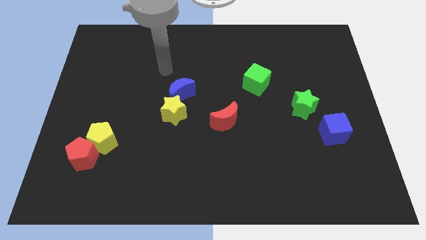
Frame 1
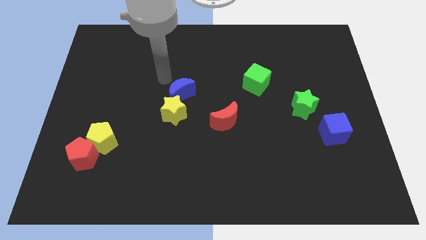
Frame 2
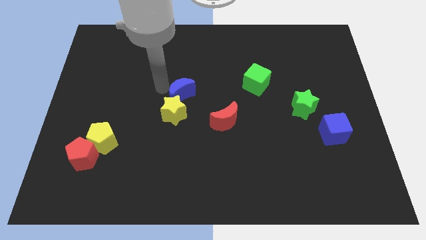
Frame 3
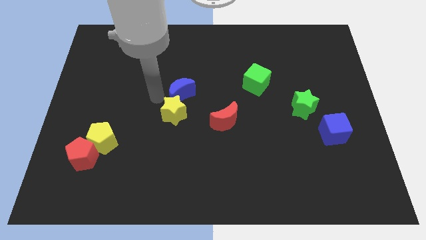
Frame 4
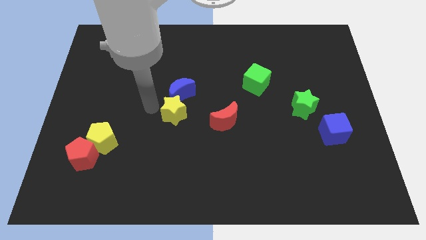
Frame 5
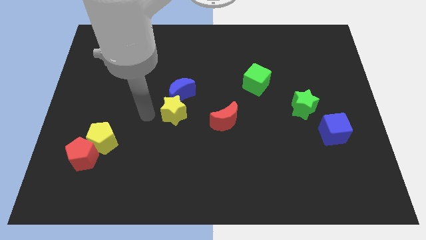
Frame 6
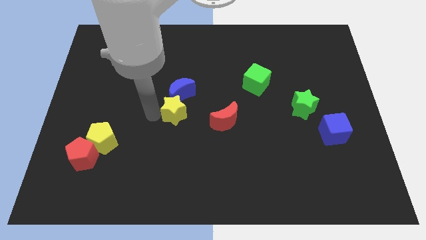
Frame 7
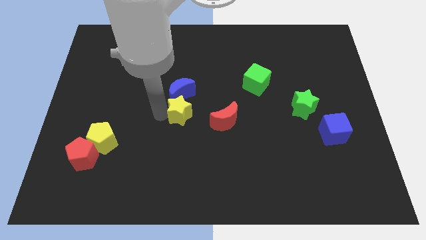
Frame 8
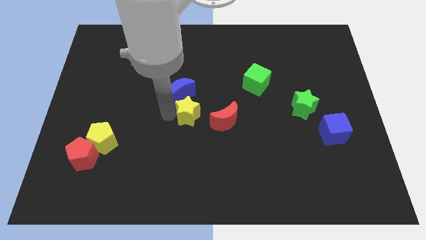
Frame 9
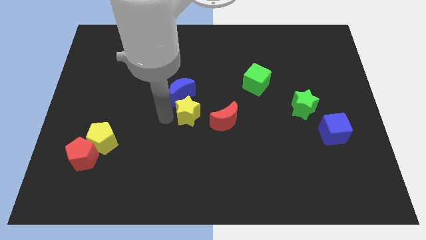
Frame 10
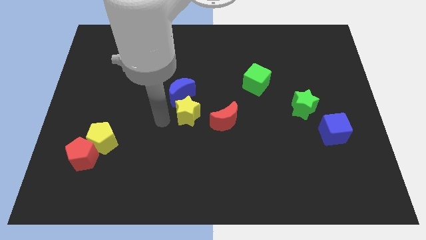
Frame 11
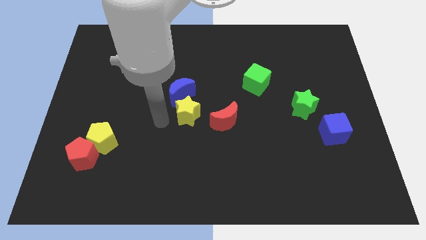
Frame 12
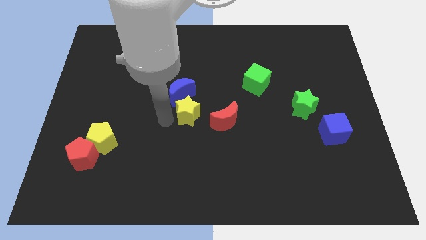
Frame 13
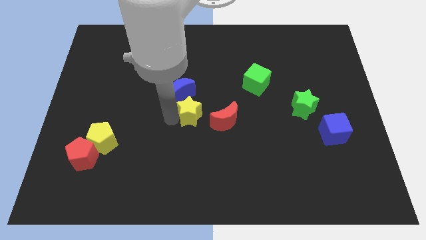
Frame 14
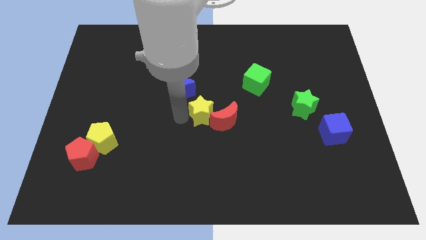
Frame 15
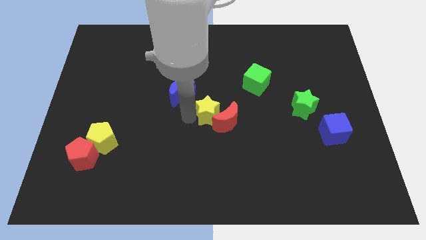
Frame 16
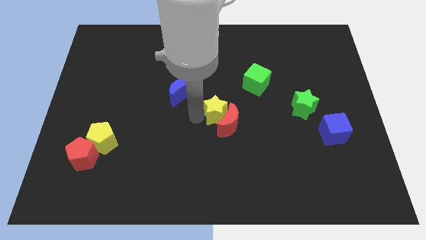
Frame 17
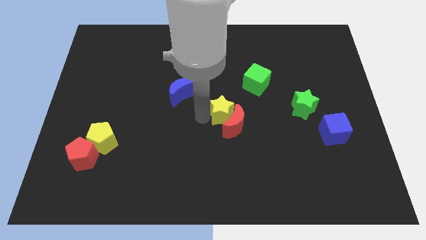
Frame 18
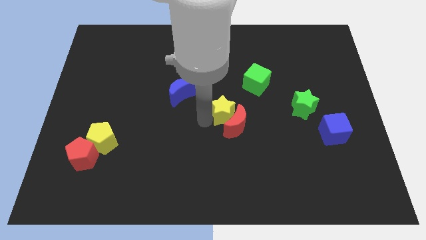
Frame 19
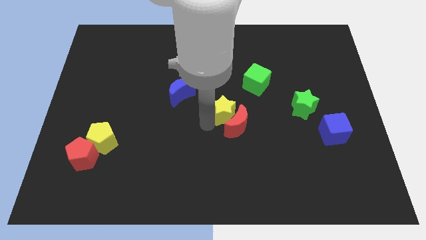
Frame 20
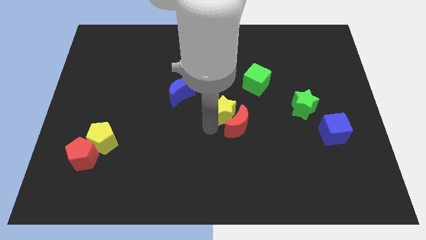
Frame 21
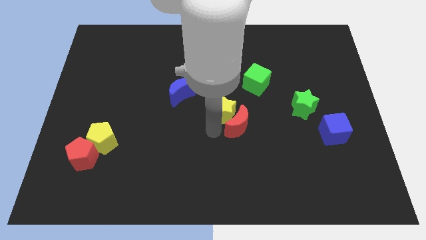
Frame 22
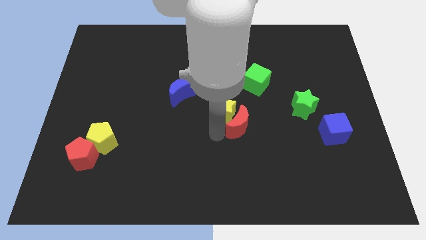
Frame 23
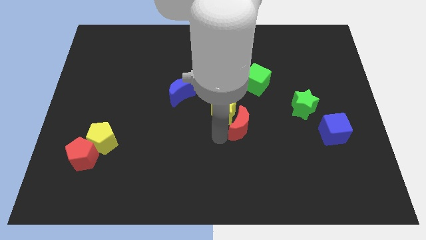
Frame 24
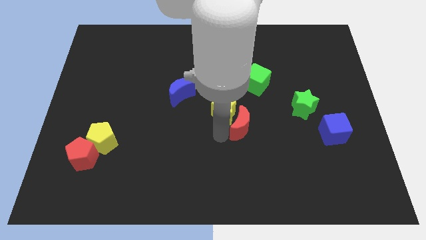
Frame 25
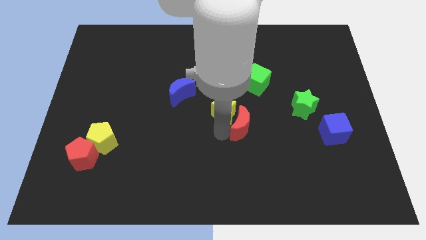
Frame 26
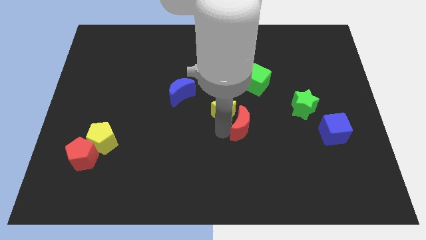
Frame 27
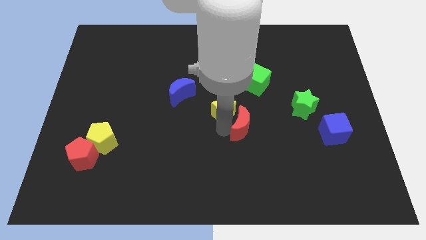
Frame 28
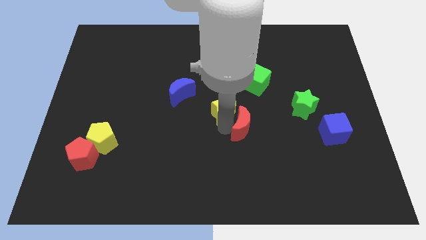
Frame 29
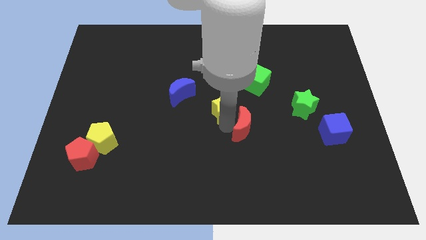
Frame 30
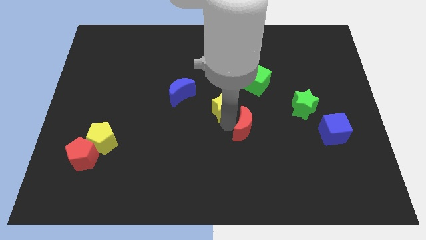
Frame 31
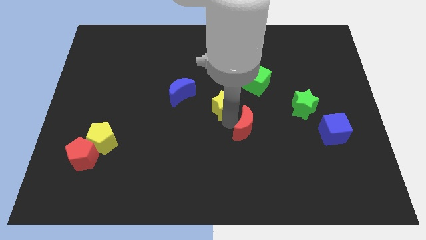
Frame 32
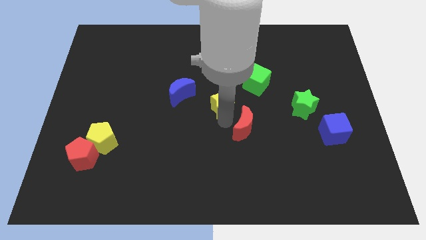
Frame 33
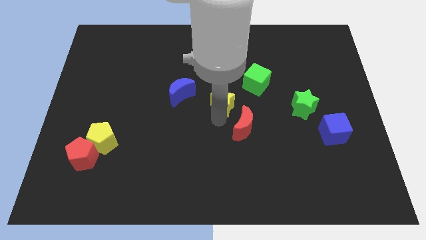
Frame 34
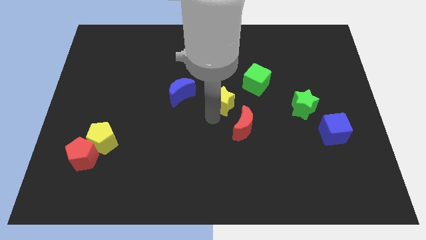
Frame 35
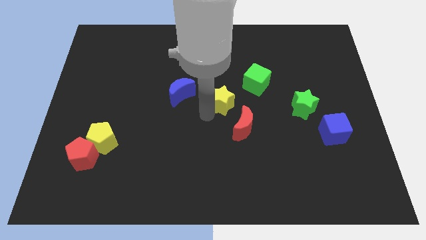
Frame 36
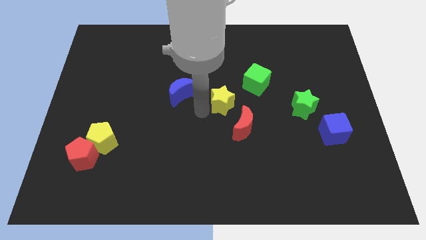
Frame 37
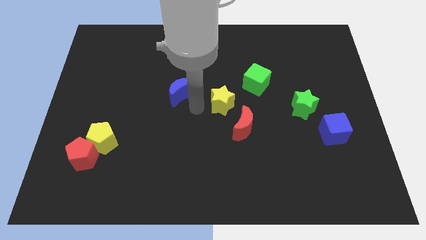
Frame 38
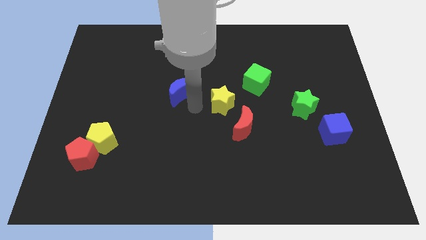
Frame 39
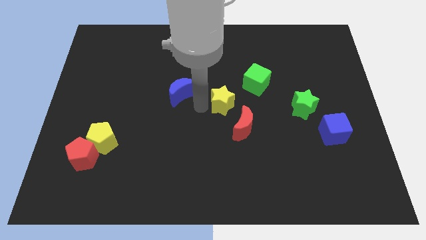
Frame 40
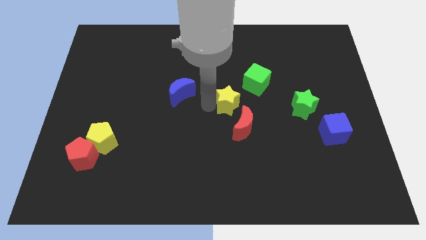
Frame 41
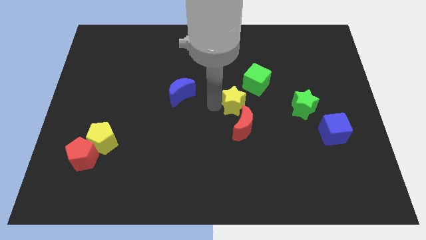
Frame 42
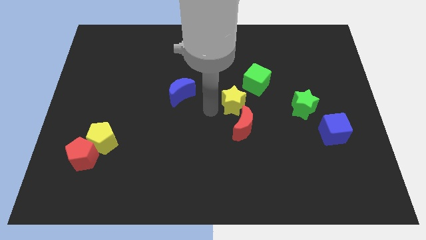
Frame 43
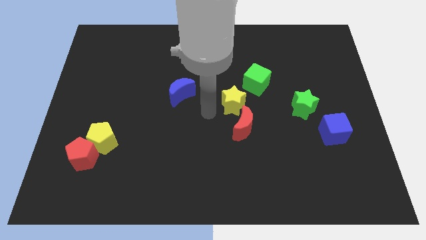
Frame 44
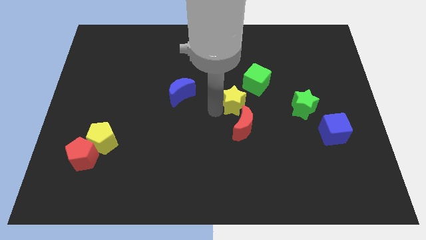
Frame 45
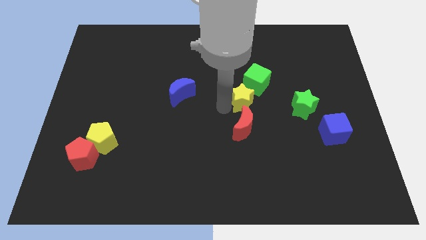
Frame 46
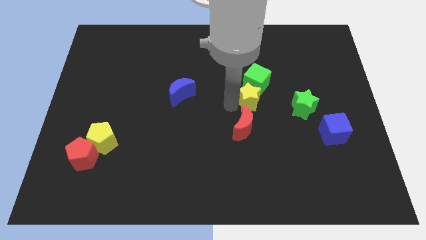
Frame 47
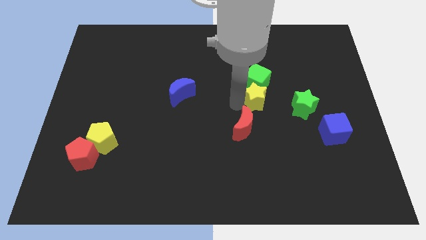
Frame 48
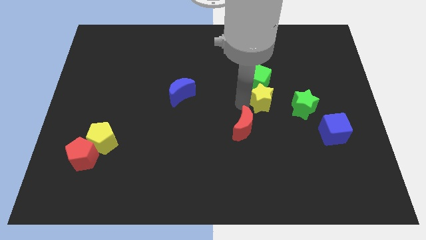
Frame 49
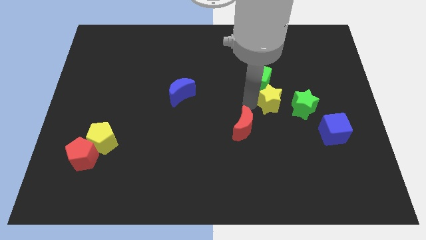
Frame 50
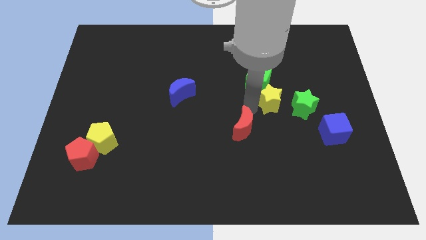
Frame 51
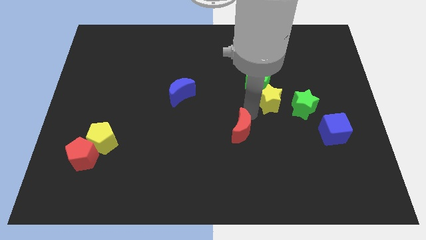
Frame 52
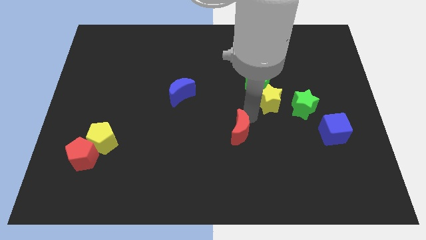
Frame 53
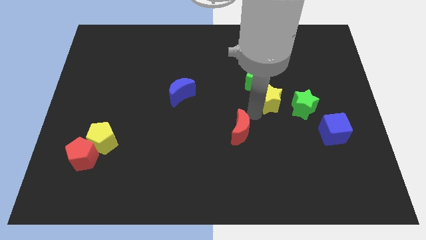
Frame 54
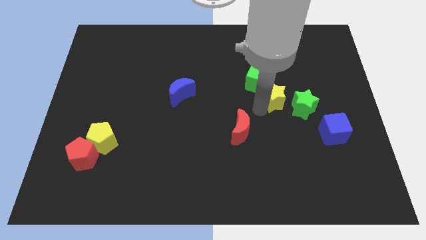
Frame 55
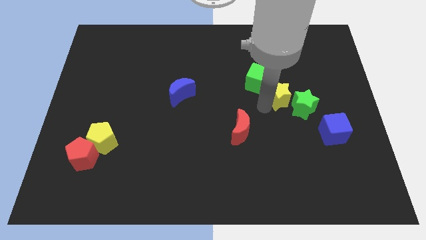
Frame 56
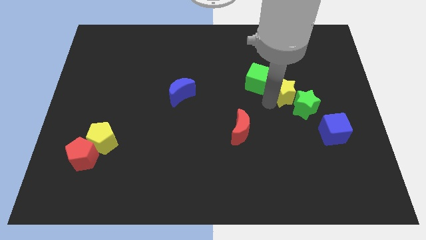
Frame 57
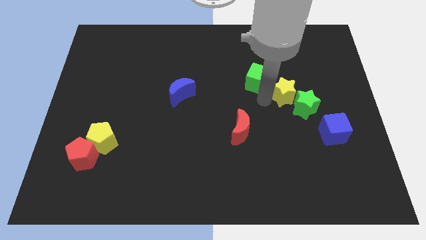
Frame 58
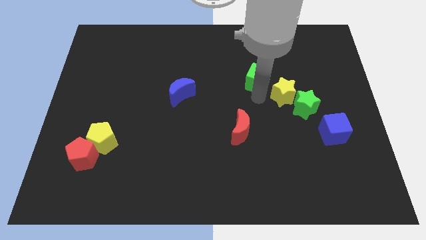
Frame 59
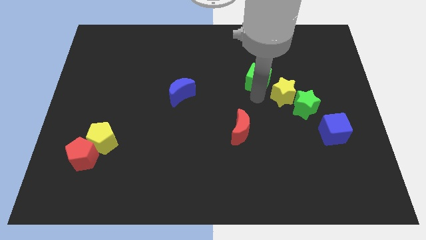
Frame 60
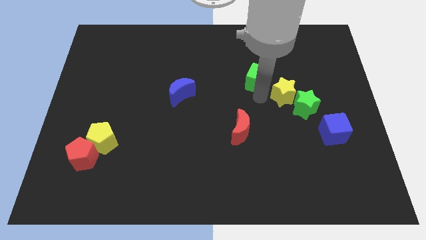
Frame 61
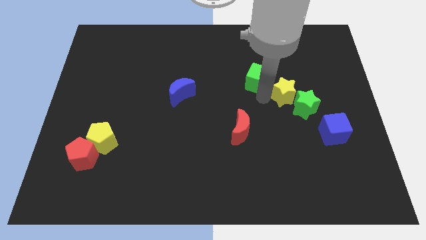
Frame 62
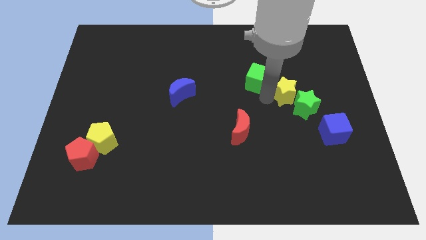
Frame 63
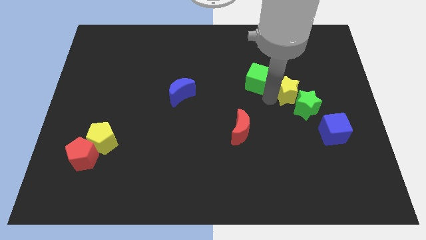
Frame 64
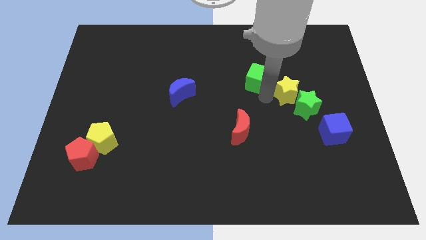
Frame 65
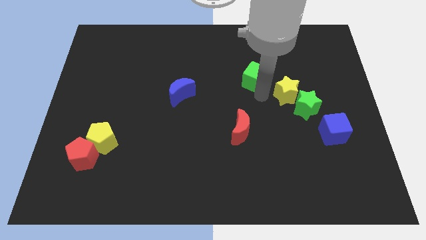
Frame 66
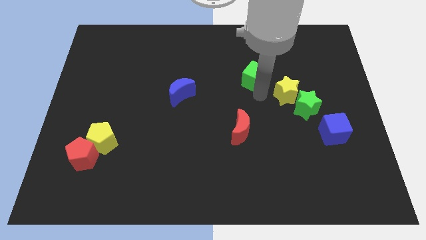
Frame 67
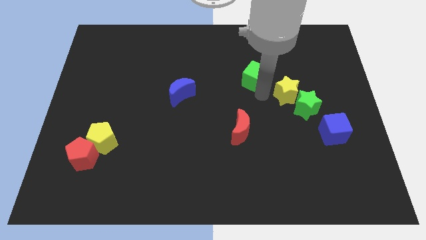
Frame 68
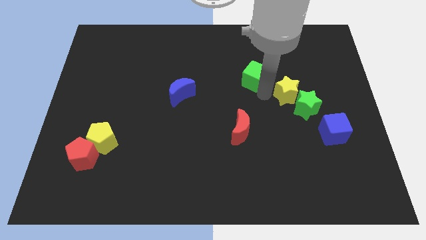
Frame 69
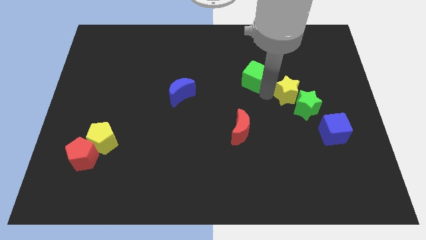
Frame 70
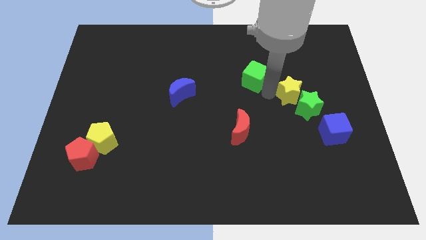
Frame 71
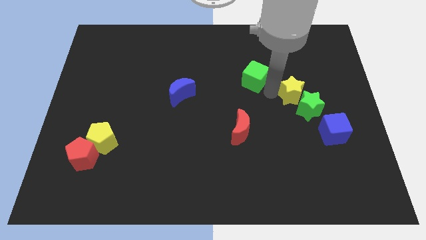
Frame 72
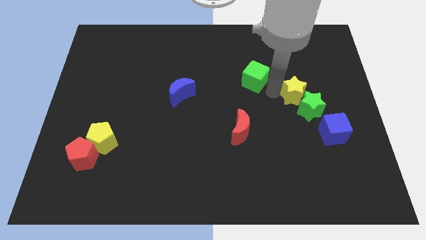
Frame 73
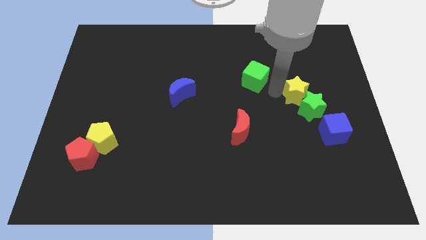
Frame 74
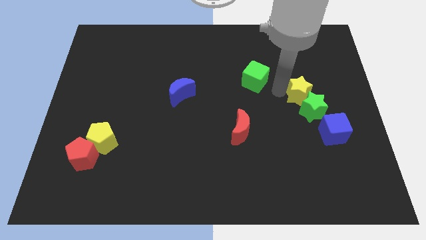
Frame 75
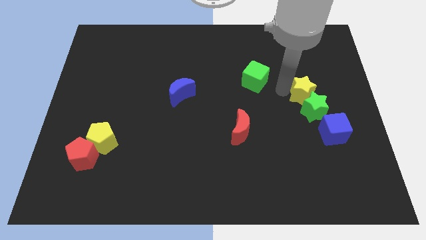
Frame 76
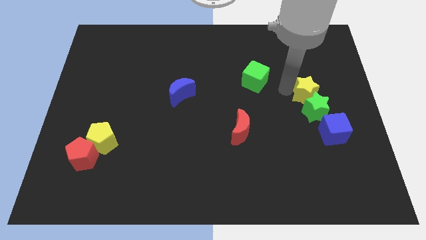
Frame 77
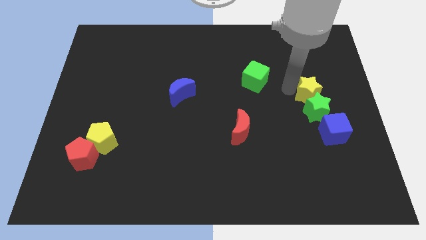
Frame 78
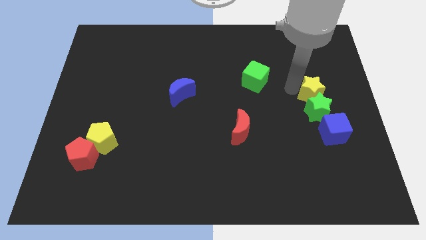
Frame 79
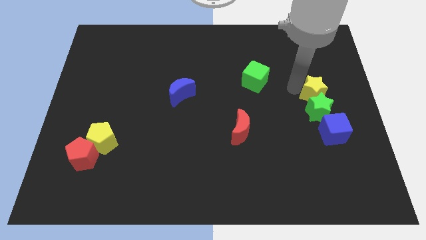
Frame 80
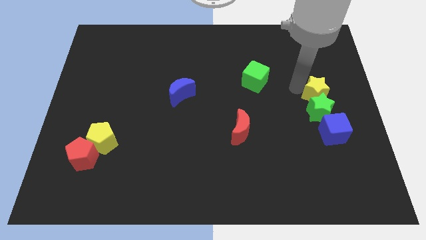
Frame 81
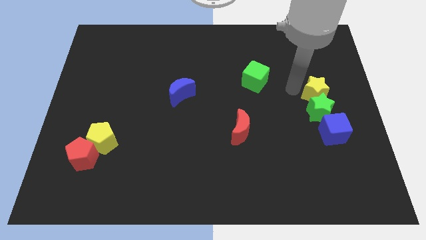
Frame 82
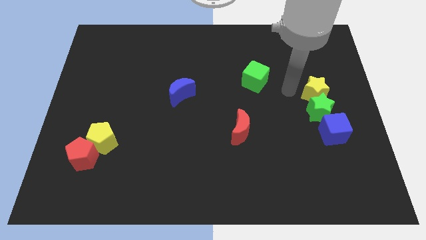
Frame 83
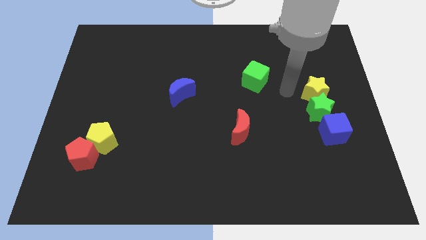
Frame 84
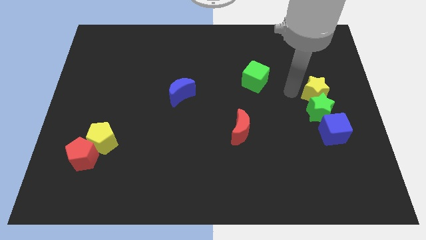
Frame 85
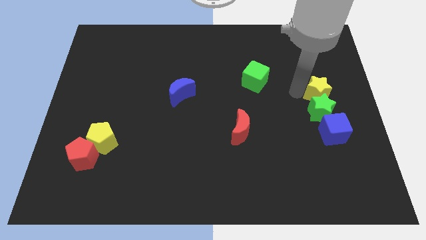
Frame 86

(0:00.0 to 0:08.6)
put the yellow star to the right side of the board
